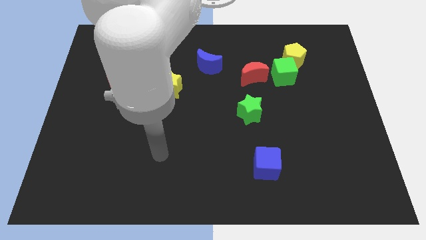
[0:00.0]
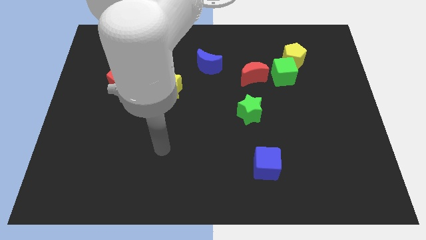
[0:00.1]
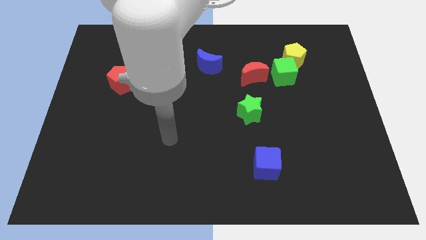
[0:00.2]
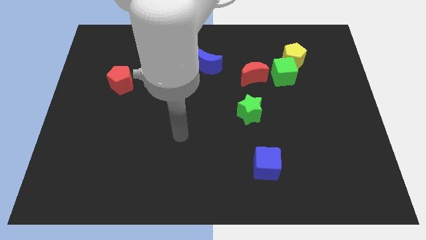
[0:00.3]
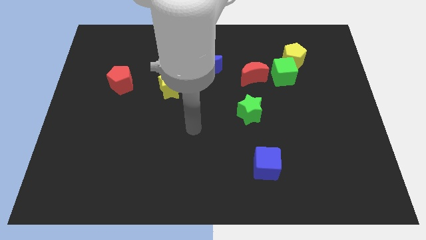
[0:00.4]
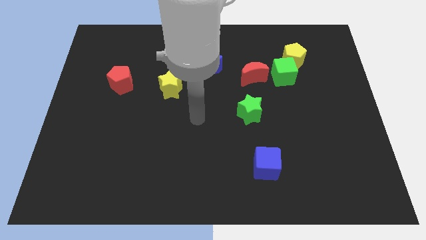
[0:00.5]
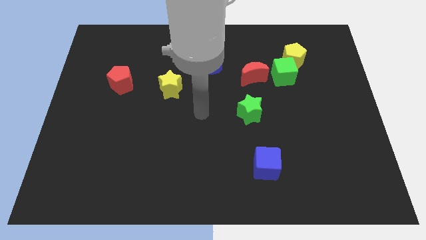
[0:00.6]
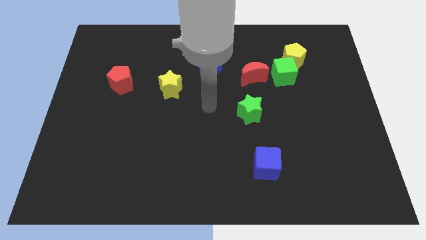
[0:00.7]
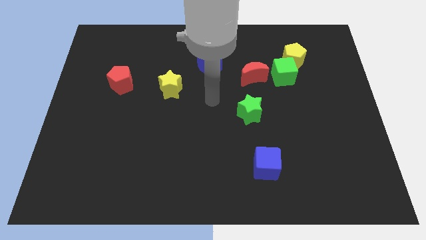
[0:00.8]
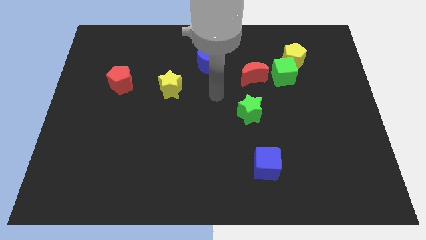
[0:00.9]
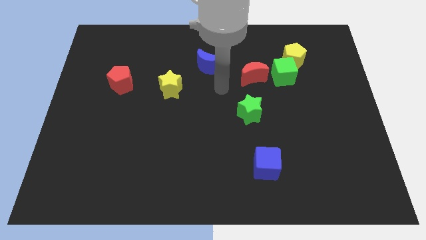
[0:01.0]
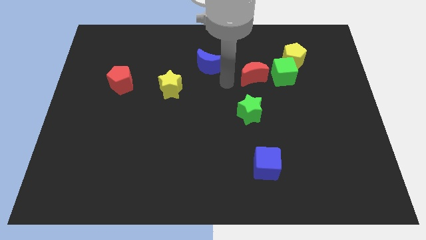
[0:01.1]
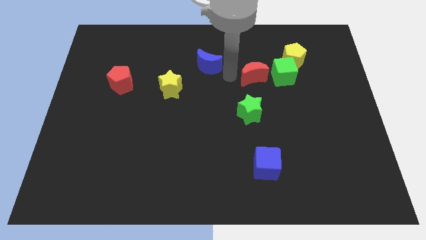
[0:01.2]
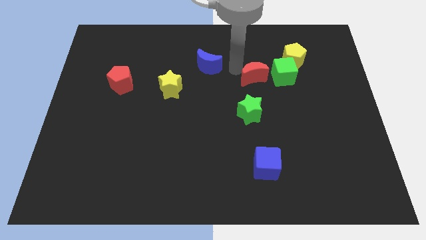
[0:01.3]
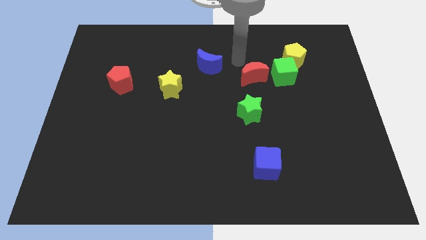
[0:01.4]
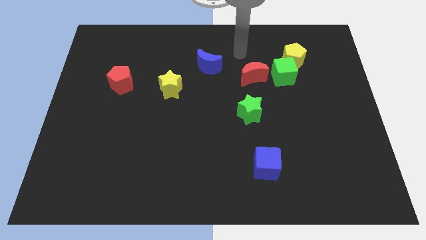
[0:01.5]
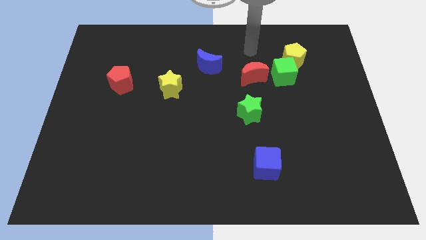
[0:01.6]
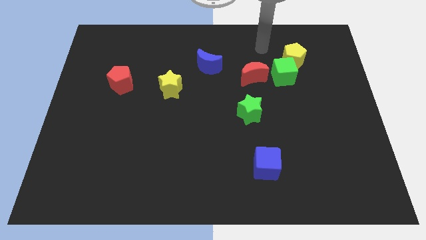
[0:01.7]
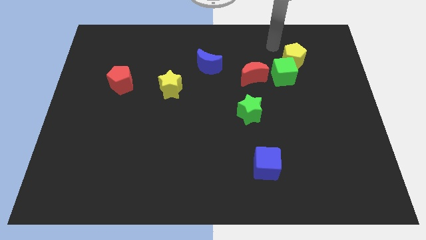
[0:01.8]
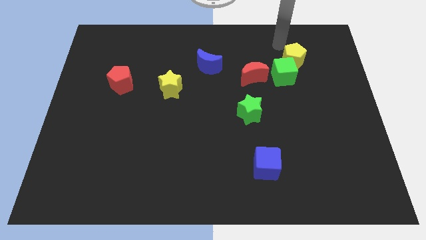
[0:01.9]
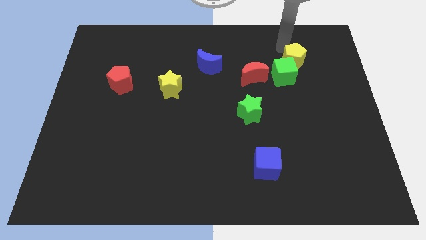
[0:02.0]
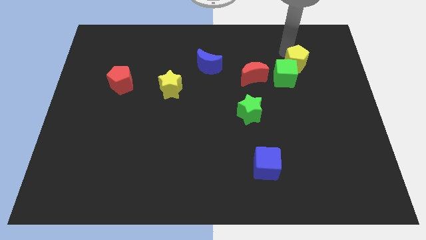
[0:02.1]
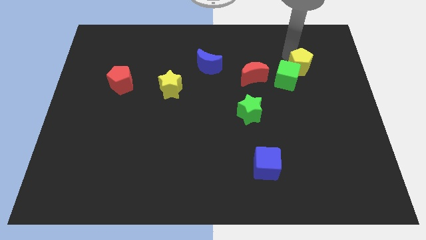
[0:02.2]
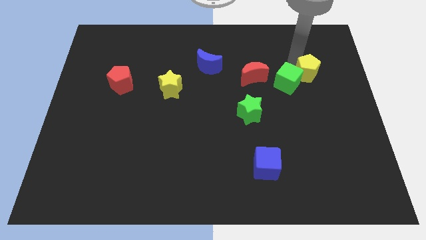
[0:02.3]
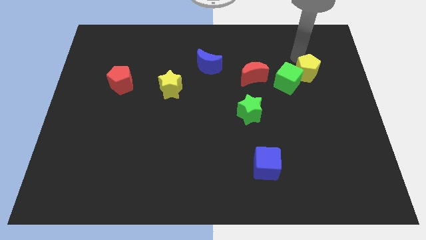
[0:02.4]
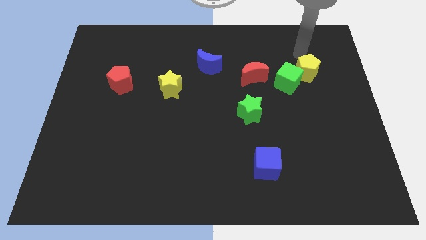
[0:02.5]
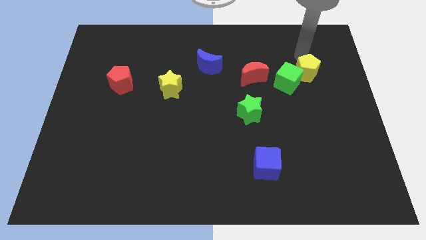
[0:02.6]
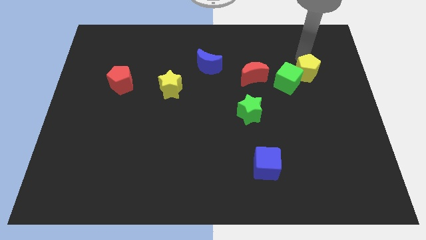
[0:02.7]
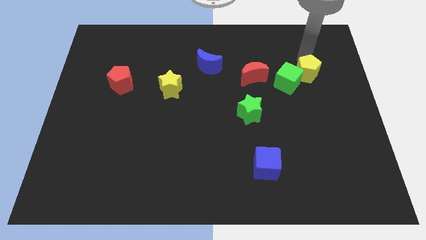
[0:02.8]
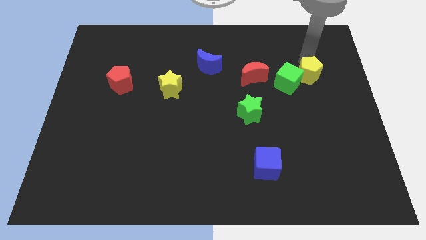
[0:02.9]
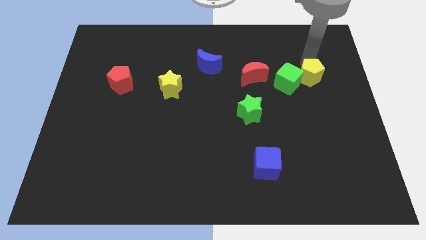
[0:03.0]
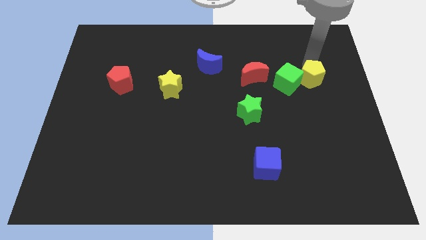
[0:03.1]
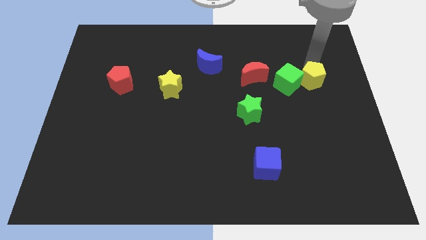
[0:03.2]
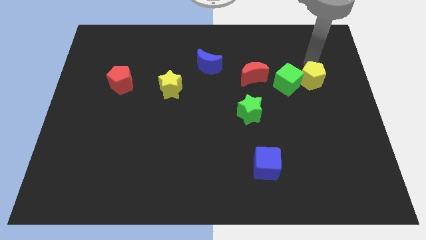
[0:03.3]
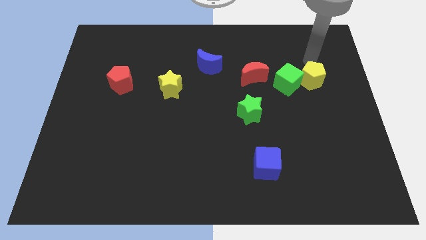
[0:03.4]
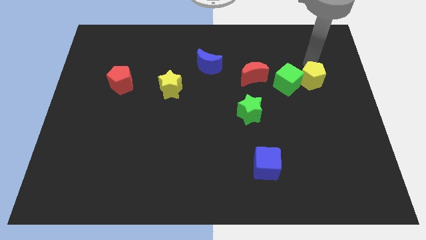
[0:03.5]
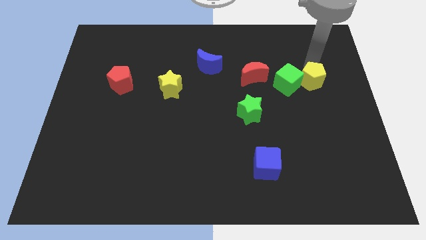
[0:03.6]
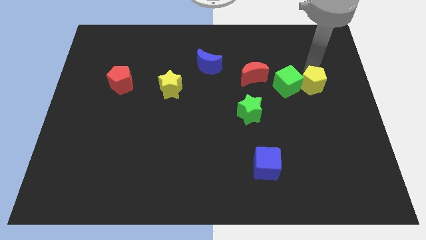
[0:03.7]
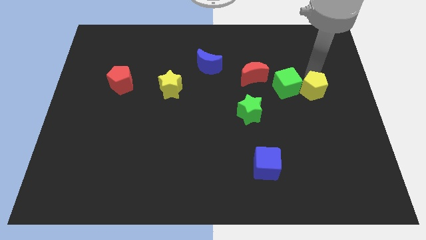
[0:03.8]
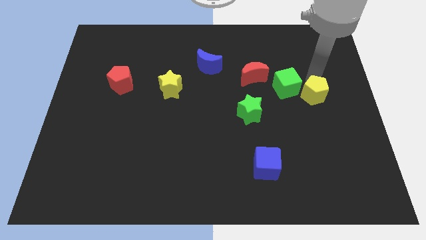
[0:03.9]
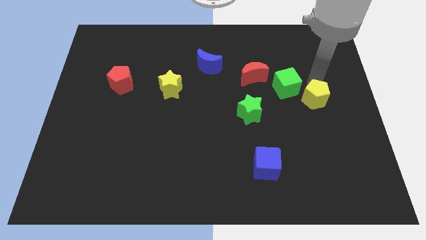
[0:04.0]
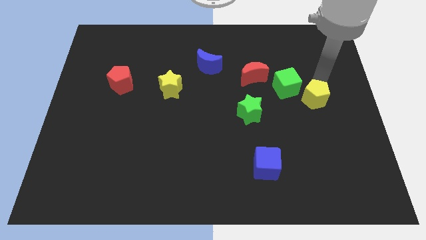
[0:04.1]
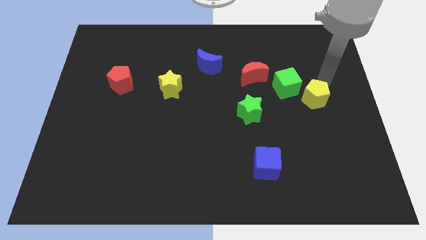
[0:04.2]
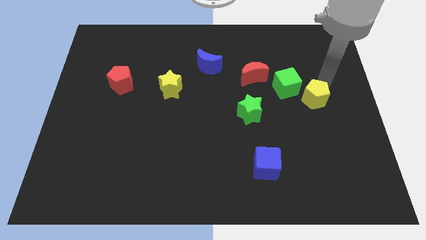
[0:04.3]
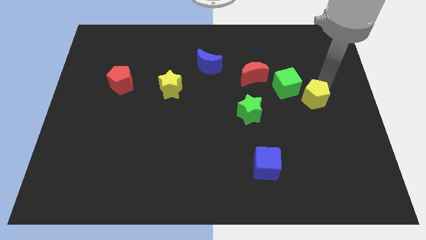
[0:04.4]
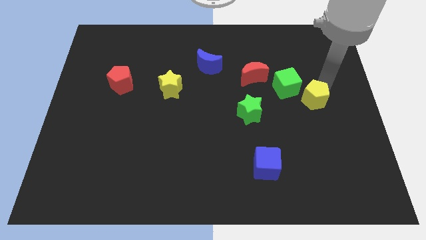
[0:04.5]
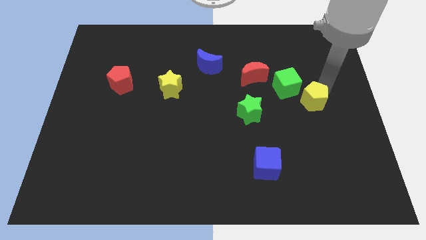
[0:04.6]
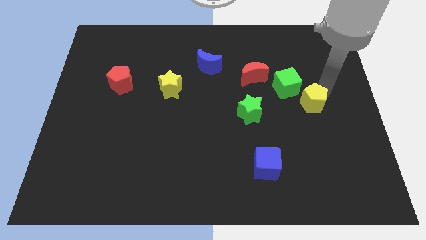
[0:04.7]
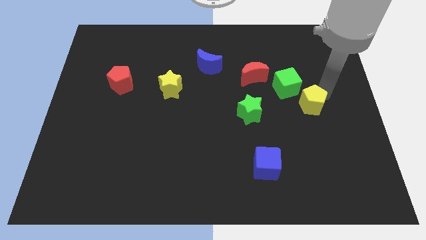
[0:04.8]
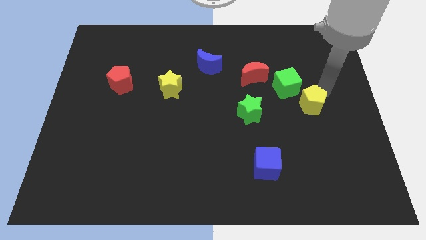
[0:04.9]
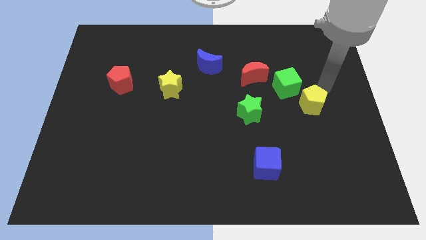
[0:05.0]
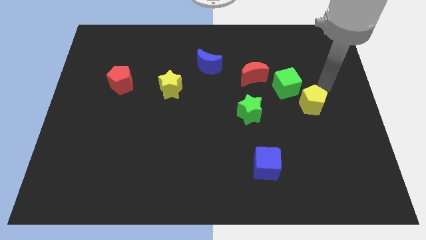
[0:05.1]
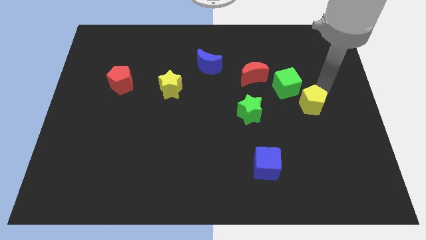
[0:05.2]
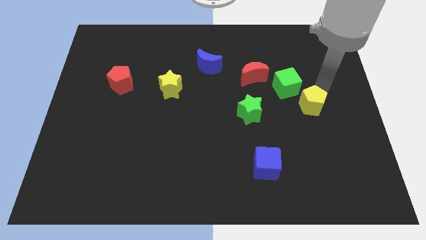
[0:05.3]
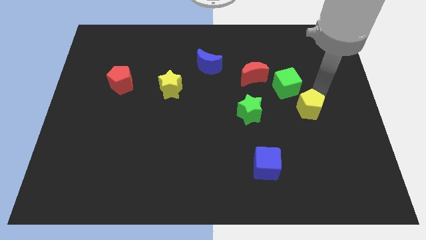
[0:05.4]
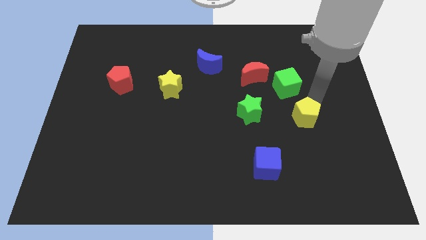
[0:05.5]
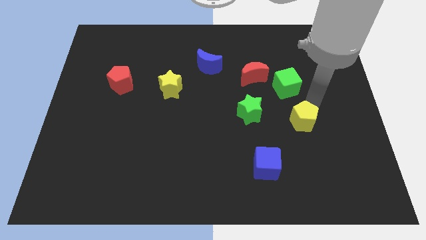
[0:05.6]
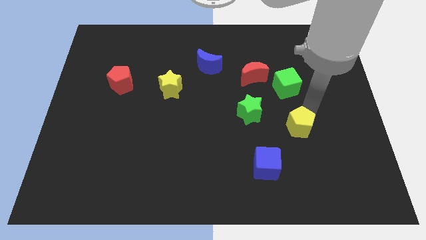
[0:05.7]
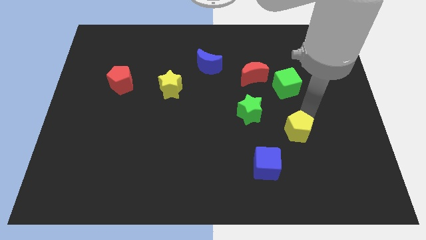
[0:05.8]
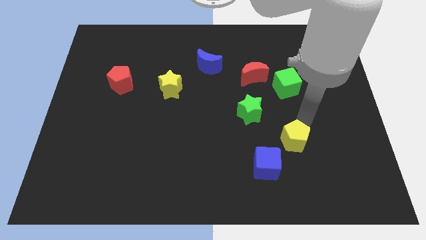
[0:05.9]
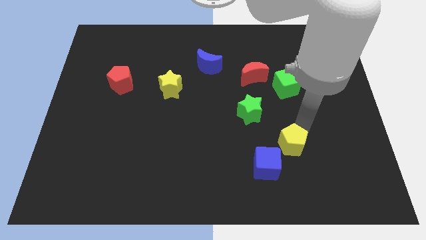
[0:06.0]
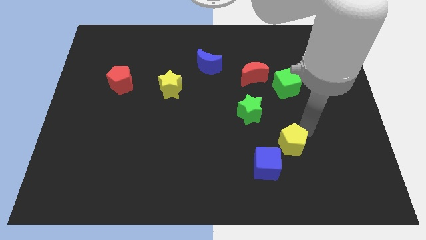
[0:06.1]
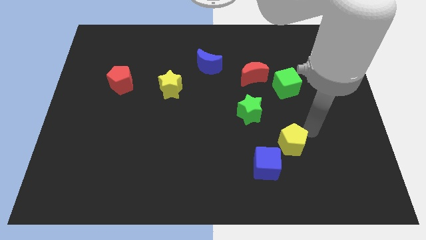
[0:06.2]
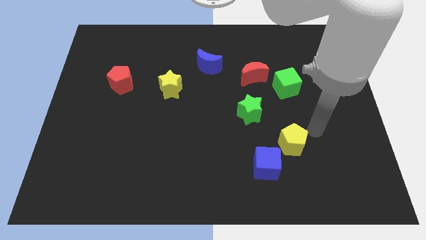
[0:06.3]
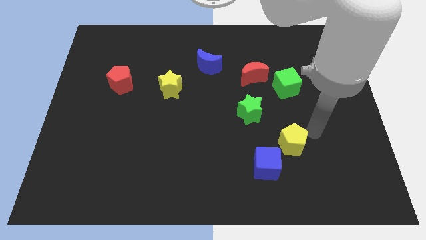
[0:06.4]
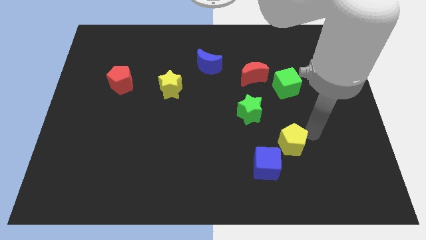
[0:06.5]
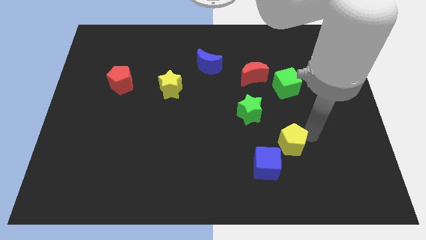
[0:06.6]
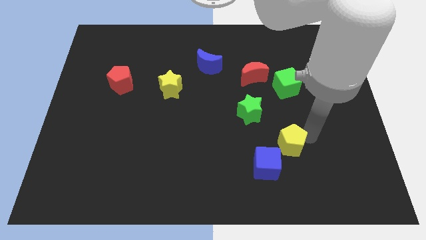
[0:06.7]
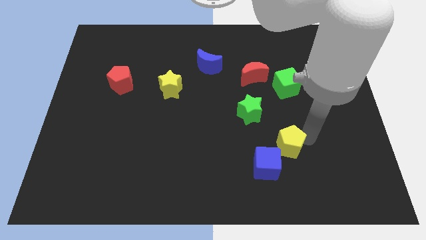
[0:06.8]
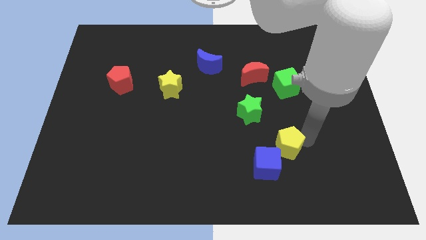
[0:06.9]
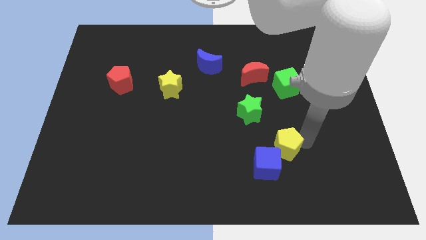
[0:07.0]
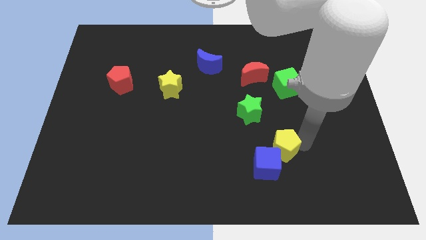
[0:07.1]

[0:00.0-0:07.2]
slide the yellow pentagon towards the blue cube

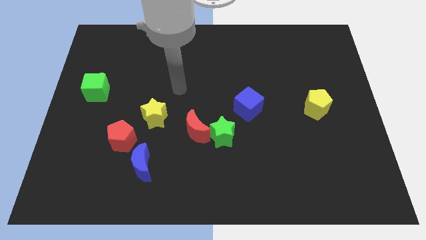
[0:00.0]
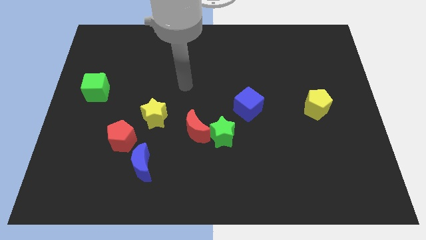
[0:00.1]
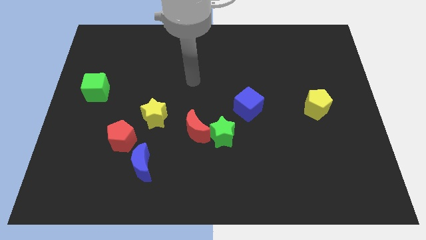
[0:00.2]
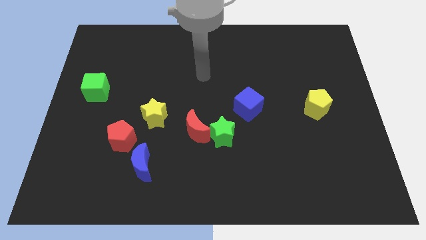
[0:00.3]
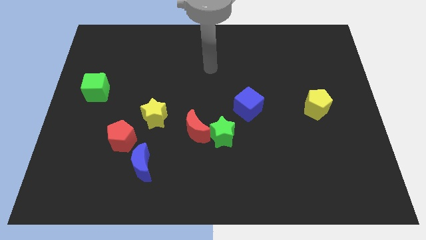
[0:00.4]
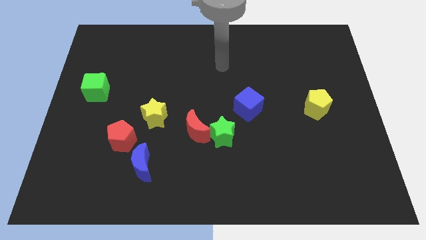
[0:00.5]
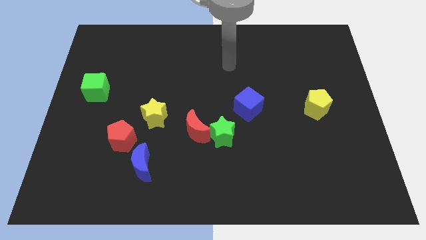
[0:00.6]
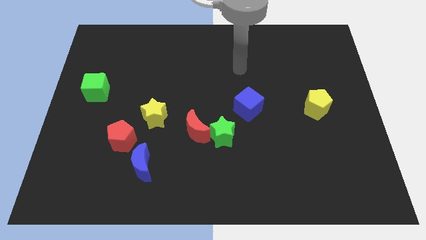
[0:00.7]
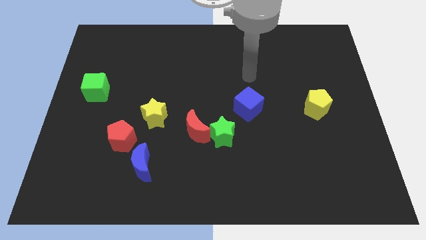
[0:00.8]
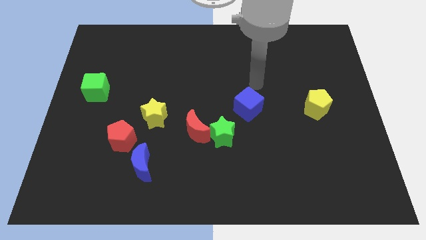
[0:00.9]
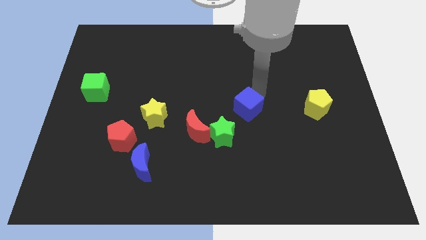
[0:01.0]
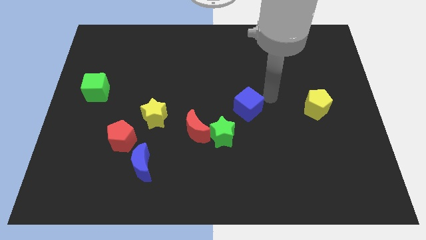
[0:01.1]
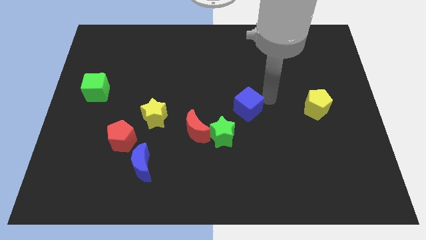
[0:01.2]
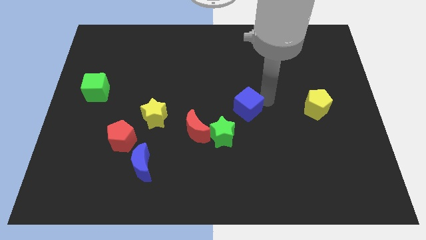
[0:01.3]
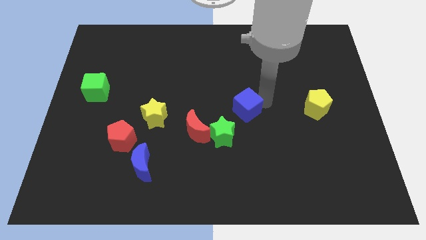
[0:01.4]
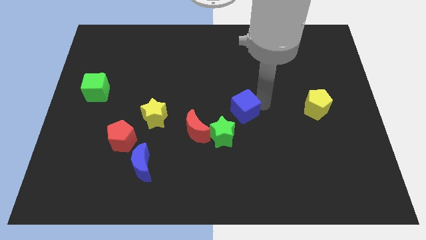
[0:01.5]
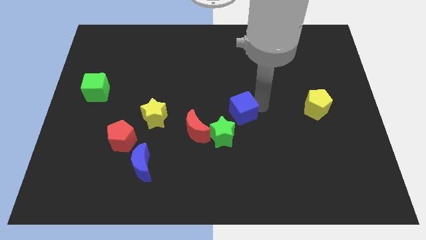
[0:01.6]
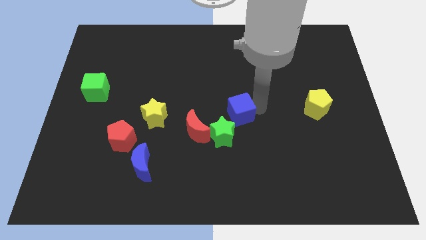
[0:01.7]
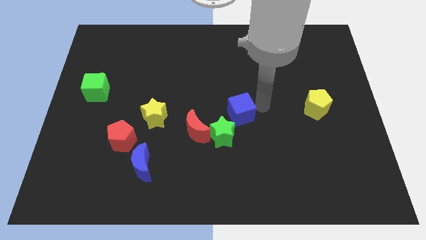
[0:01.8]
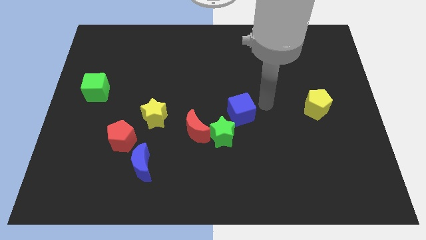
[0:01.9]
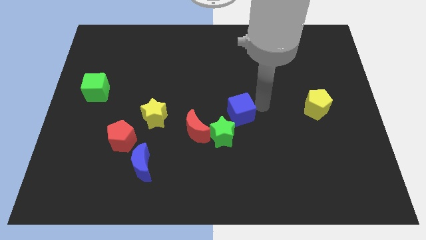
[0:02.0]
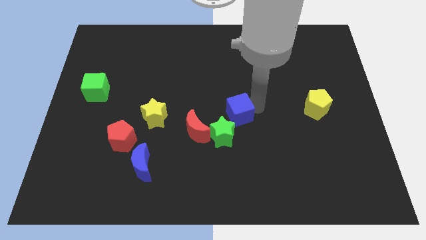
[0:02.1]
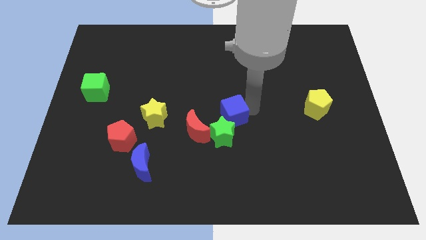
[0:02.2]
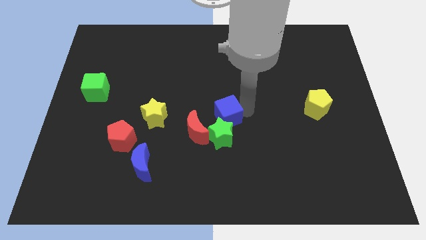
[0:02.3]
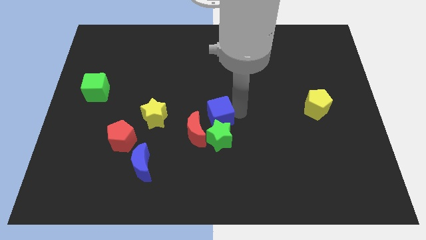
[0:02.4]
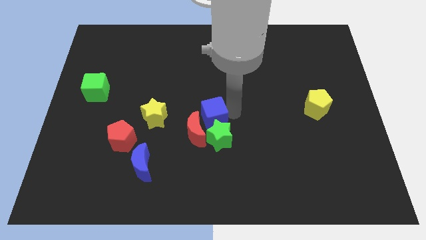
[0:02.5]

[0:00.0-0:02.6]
slide the blue cube close to the red moon
